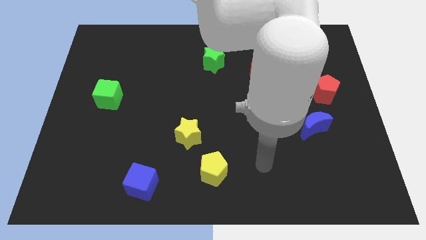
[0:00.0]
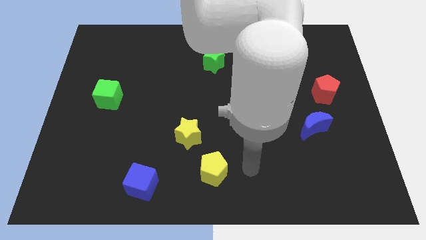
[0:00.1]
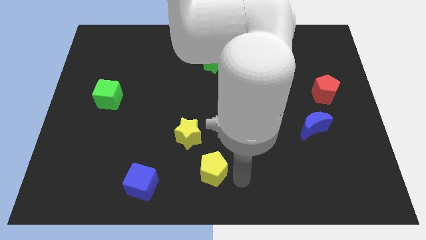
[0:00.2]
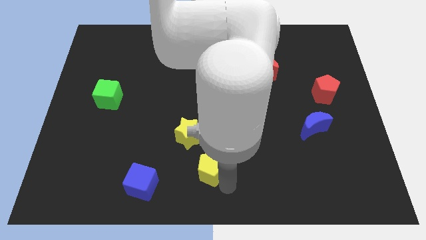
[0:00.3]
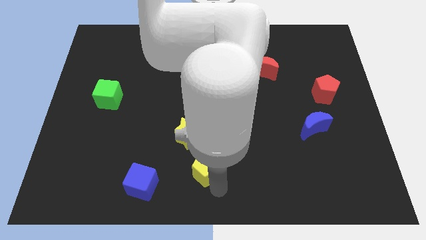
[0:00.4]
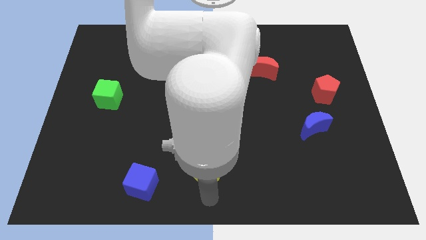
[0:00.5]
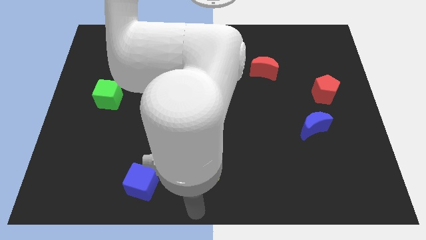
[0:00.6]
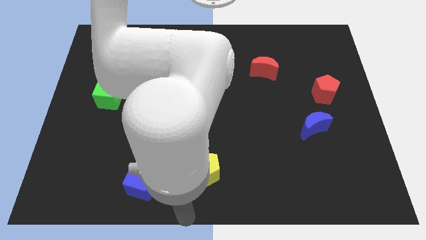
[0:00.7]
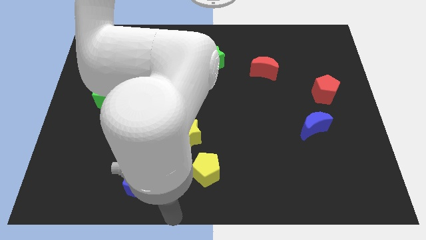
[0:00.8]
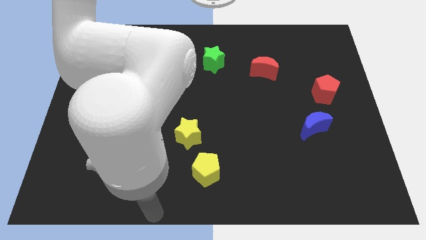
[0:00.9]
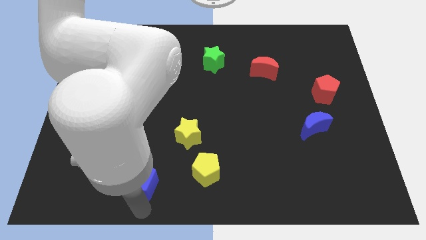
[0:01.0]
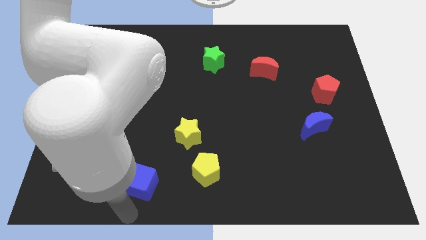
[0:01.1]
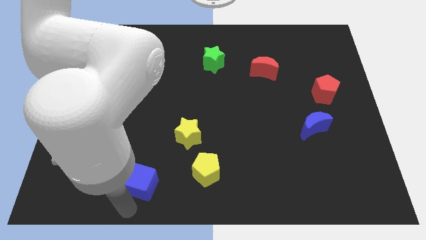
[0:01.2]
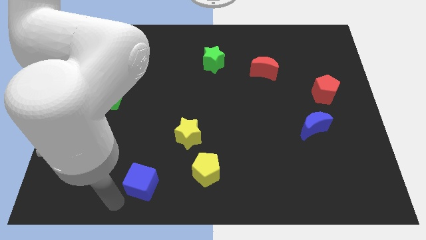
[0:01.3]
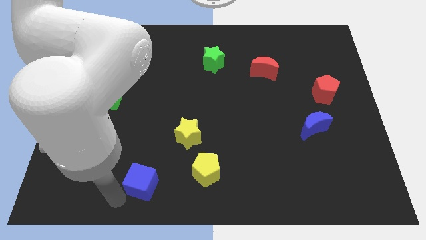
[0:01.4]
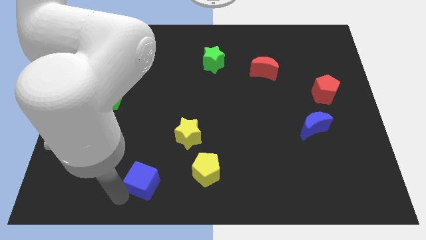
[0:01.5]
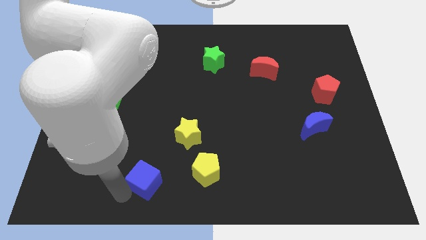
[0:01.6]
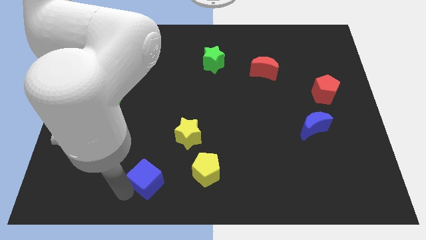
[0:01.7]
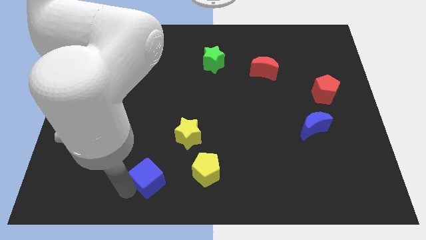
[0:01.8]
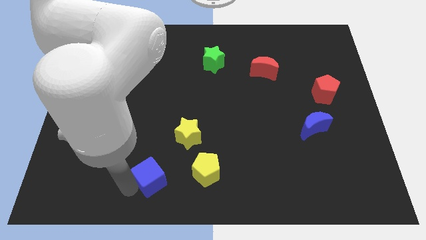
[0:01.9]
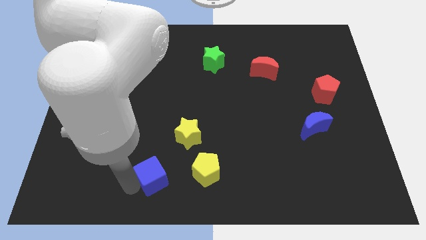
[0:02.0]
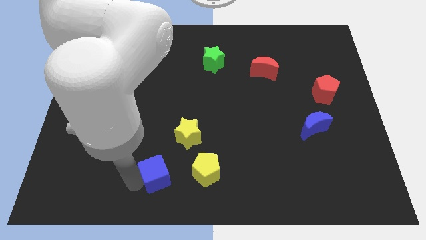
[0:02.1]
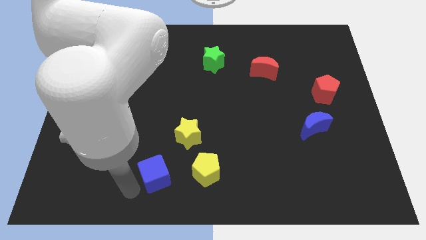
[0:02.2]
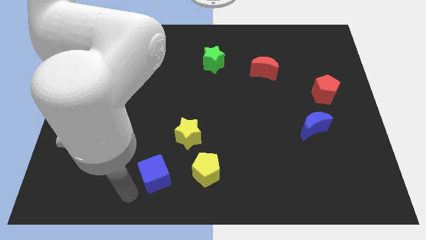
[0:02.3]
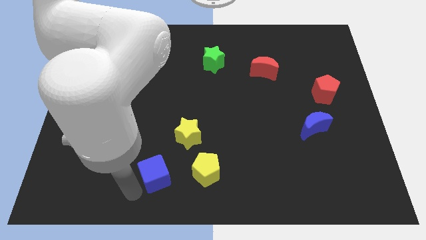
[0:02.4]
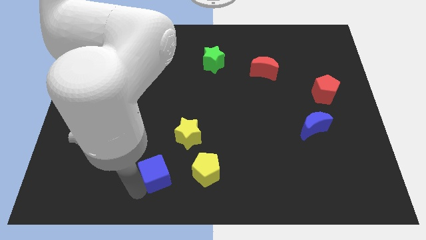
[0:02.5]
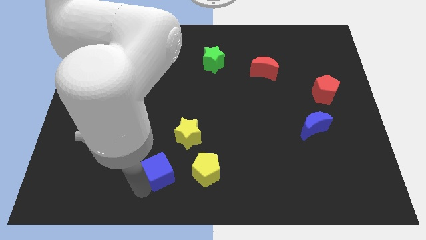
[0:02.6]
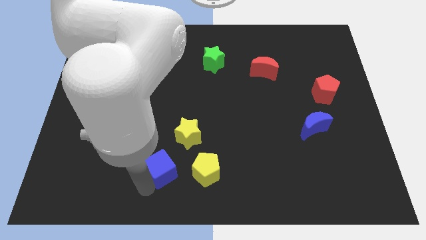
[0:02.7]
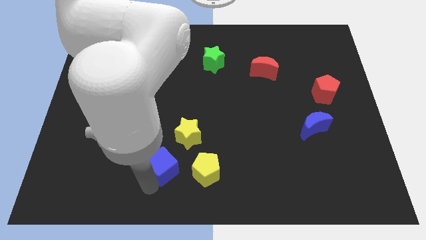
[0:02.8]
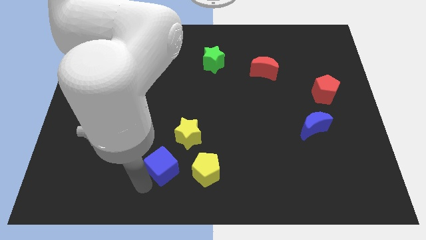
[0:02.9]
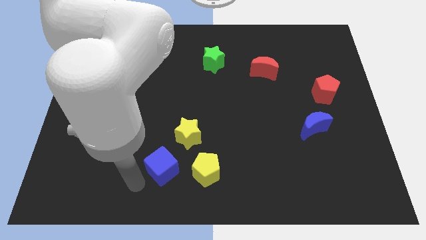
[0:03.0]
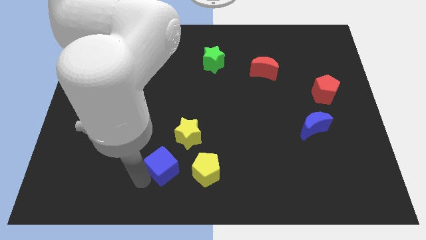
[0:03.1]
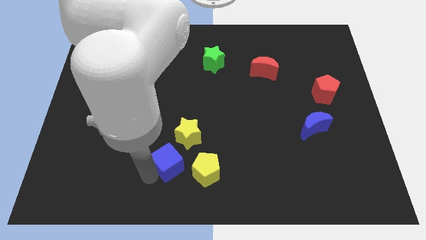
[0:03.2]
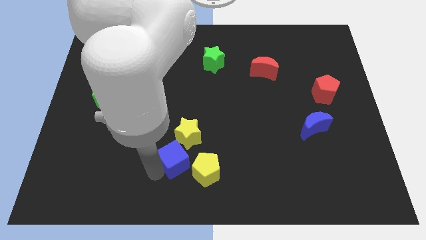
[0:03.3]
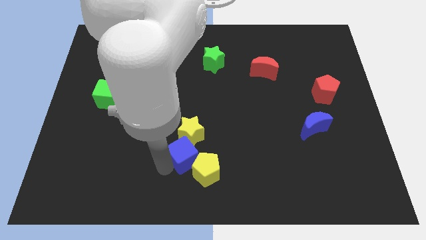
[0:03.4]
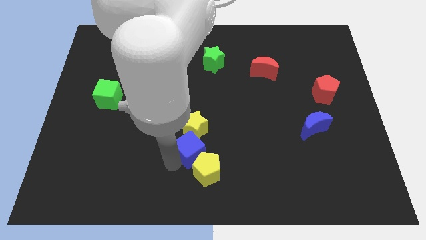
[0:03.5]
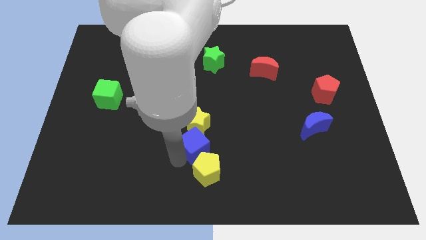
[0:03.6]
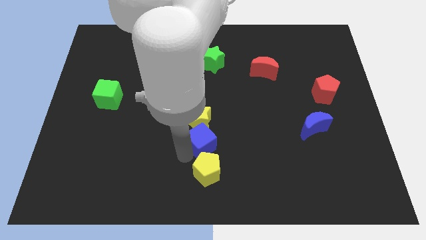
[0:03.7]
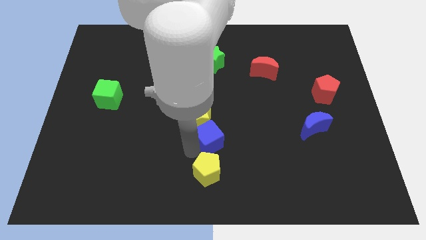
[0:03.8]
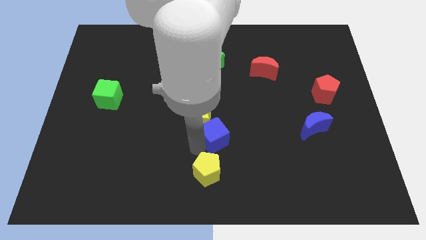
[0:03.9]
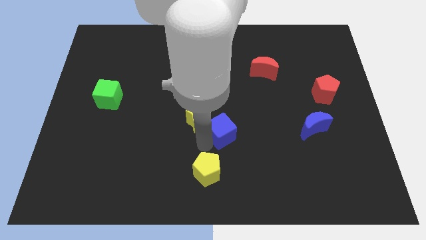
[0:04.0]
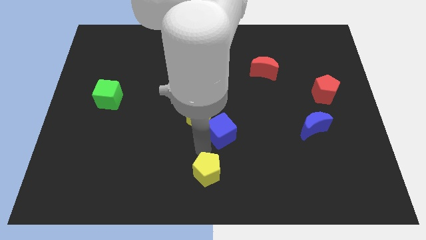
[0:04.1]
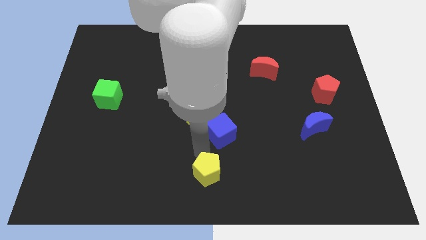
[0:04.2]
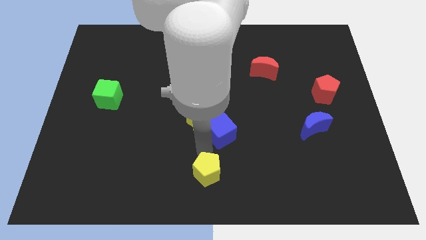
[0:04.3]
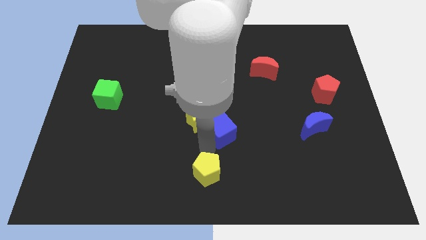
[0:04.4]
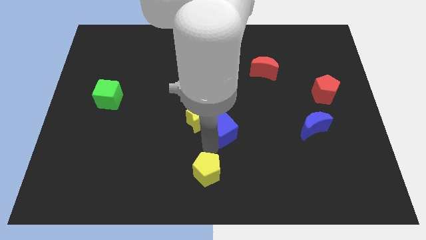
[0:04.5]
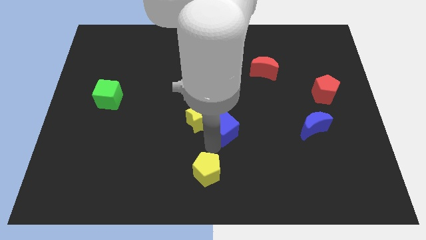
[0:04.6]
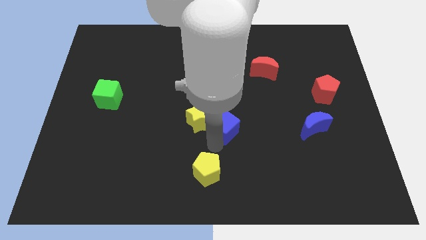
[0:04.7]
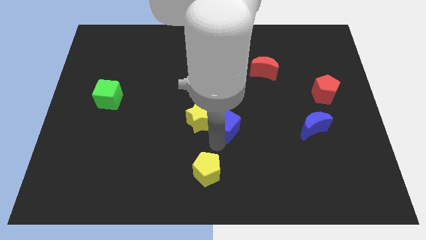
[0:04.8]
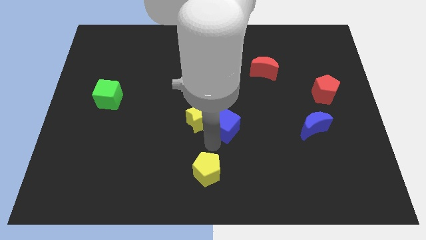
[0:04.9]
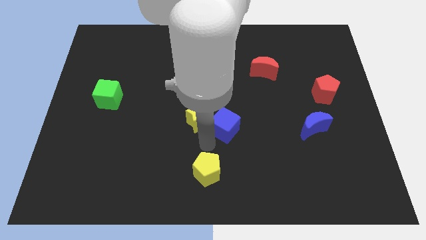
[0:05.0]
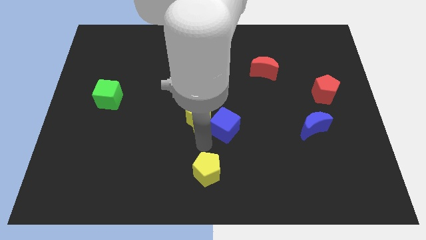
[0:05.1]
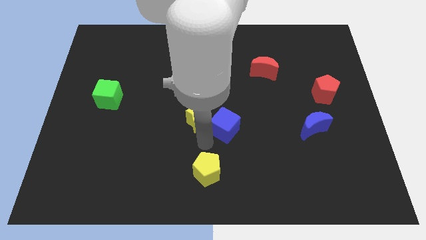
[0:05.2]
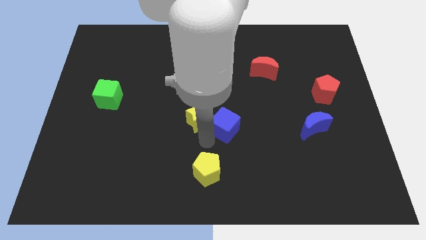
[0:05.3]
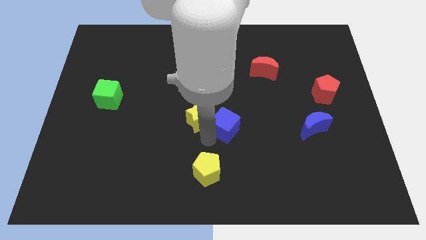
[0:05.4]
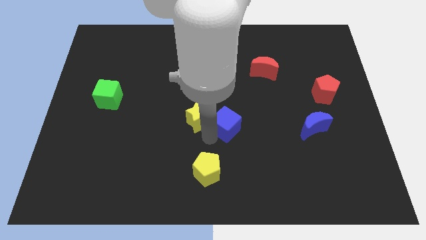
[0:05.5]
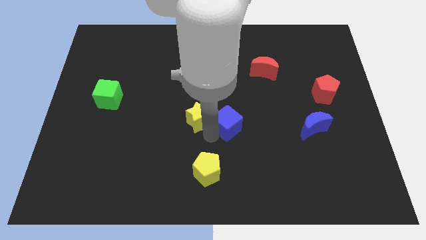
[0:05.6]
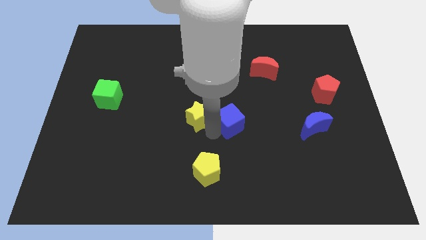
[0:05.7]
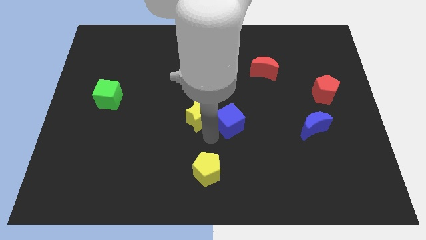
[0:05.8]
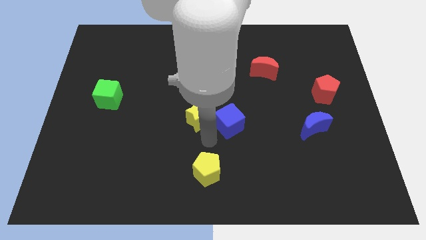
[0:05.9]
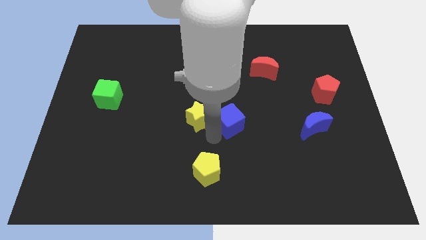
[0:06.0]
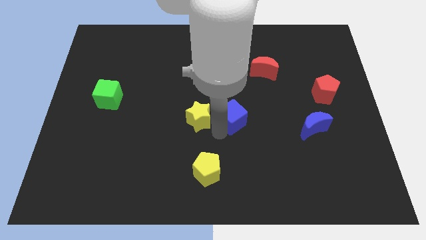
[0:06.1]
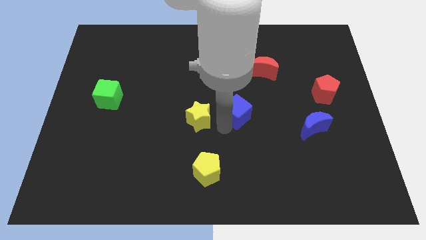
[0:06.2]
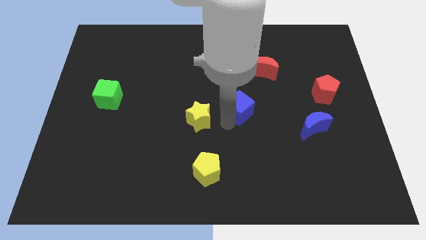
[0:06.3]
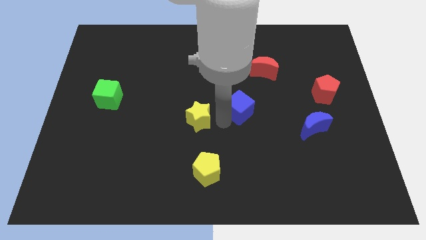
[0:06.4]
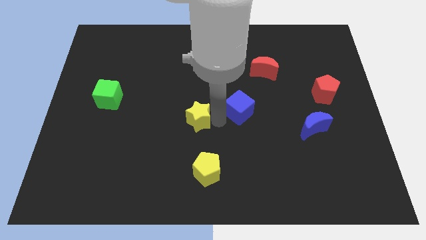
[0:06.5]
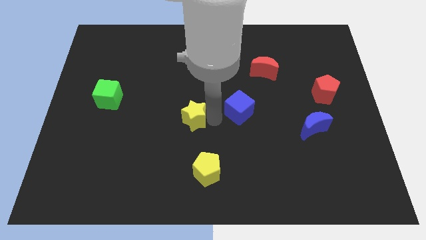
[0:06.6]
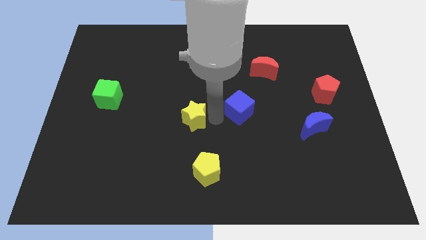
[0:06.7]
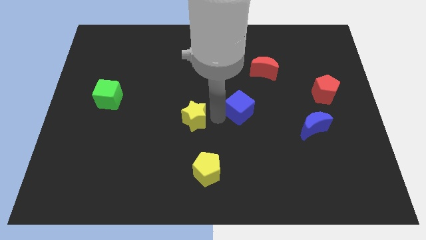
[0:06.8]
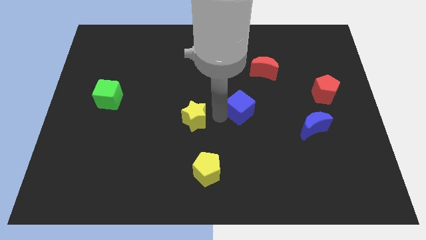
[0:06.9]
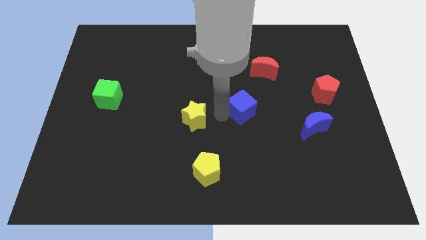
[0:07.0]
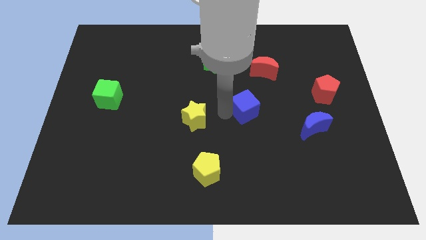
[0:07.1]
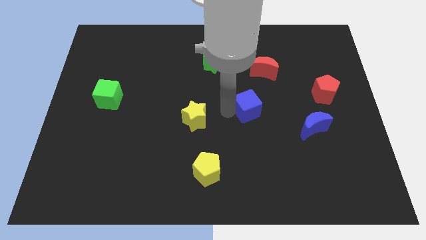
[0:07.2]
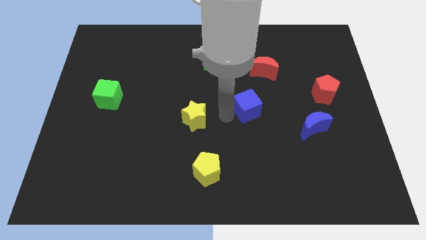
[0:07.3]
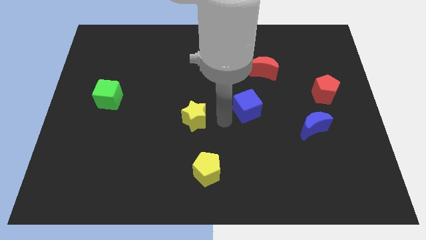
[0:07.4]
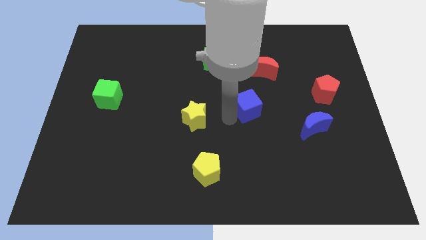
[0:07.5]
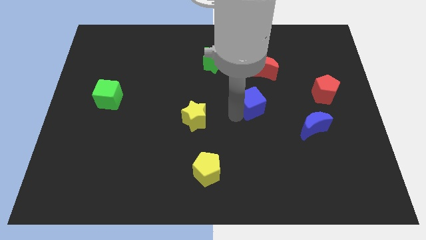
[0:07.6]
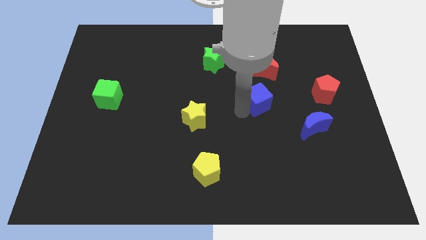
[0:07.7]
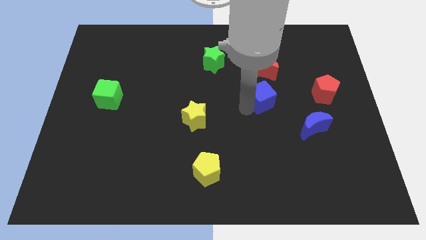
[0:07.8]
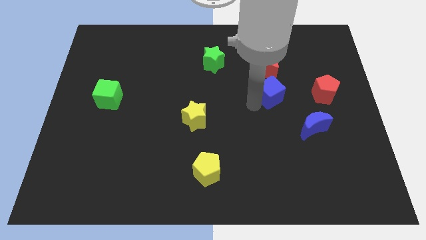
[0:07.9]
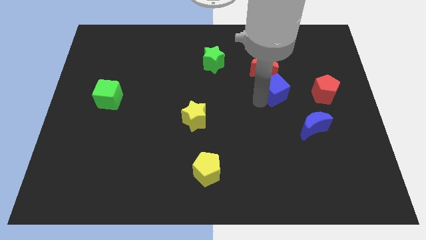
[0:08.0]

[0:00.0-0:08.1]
slide the blue cube to the bottom right of the red moon
